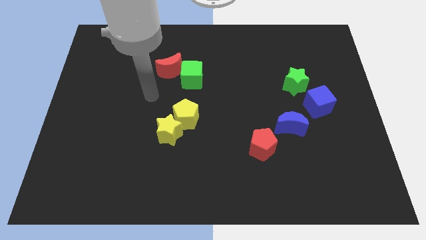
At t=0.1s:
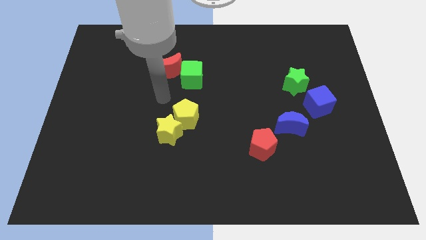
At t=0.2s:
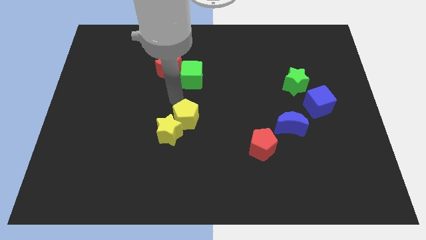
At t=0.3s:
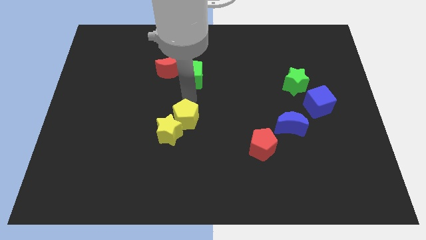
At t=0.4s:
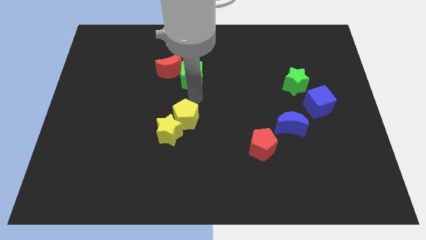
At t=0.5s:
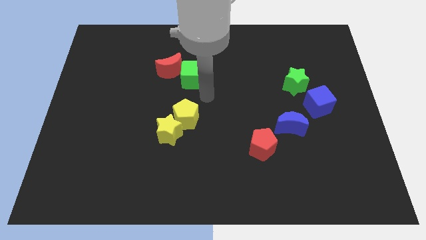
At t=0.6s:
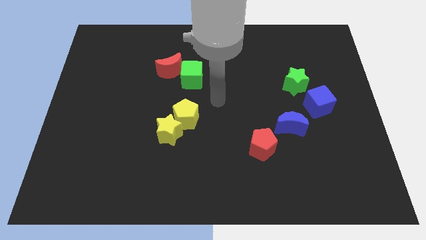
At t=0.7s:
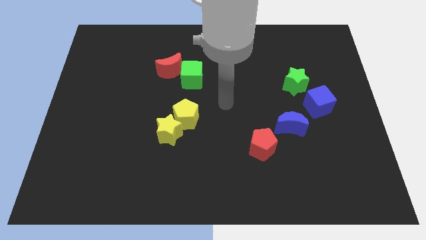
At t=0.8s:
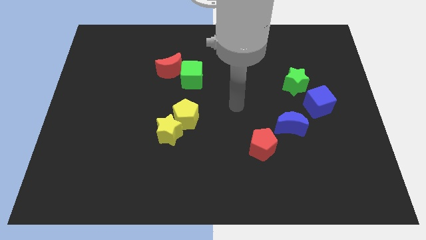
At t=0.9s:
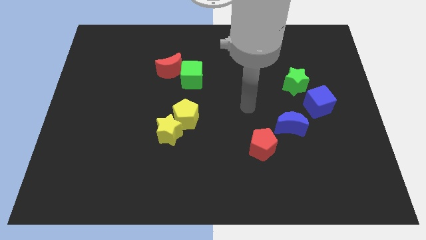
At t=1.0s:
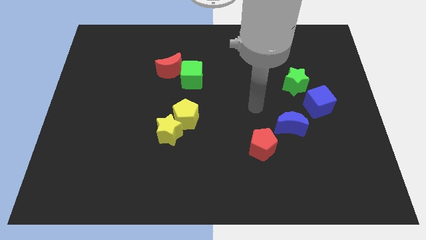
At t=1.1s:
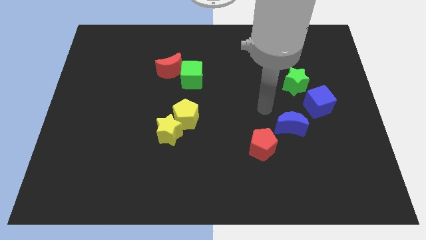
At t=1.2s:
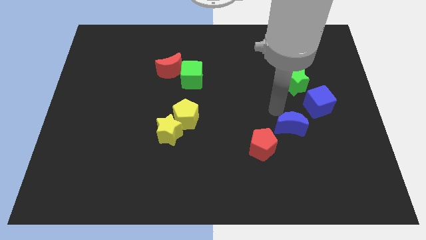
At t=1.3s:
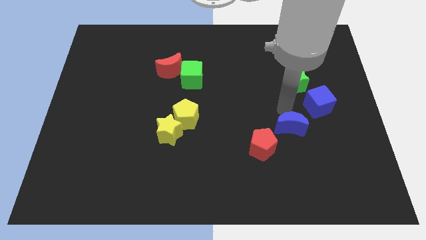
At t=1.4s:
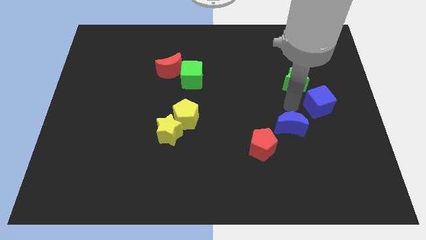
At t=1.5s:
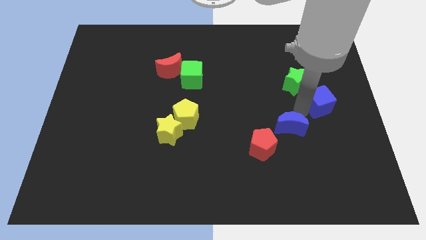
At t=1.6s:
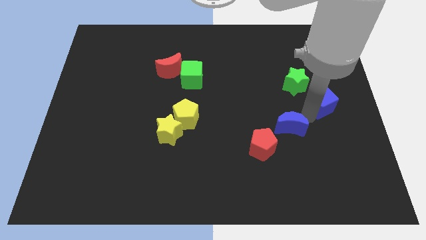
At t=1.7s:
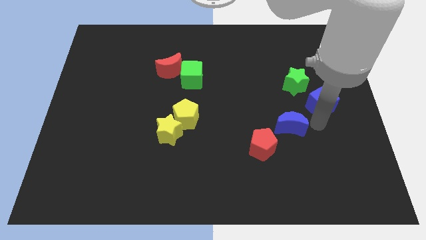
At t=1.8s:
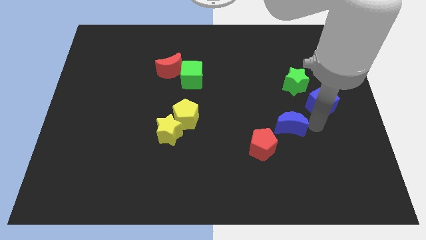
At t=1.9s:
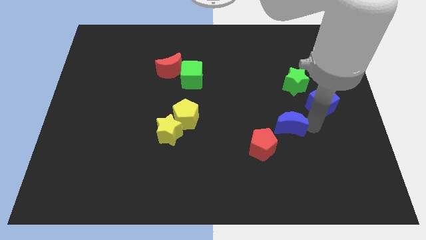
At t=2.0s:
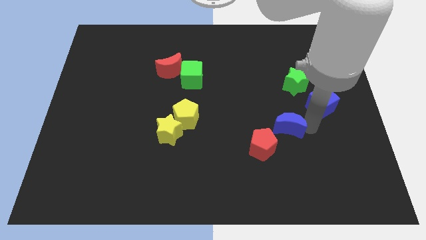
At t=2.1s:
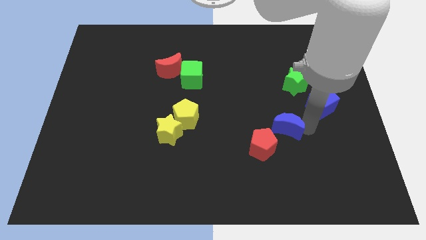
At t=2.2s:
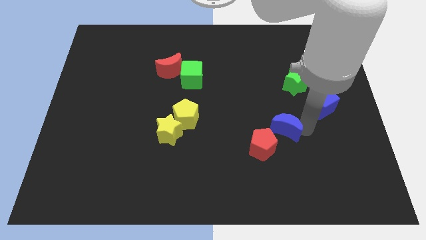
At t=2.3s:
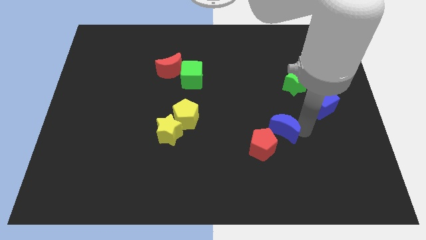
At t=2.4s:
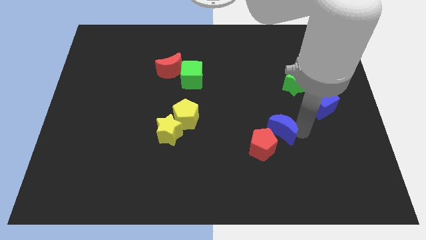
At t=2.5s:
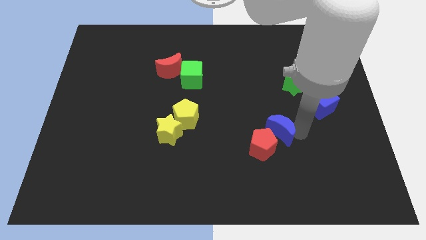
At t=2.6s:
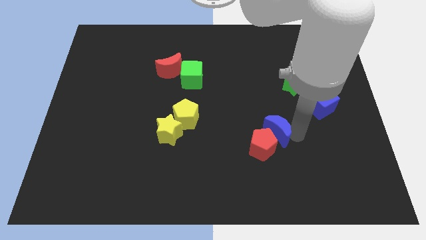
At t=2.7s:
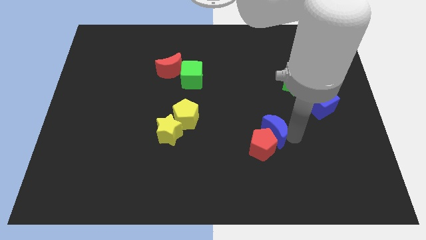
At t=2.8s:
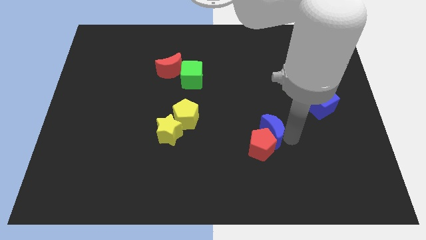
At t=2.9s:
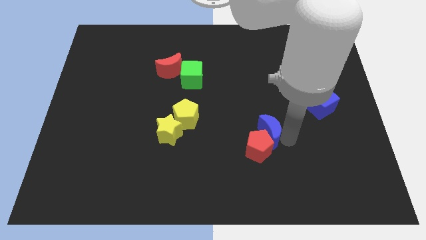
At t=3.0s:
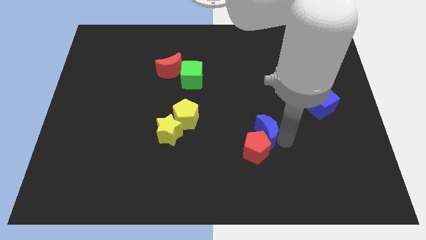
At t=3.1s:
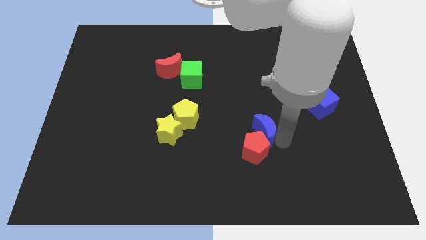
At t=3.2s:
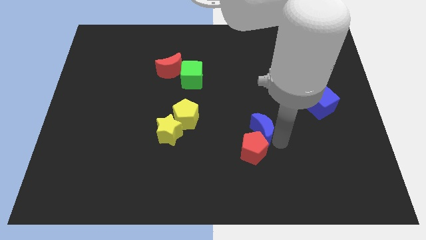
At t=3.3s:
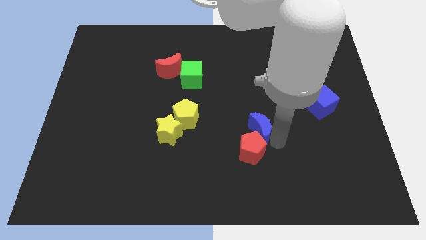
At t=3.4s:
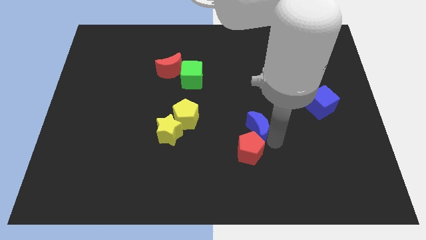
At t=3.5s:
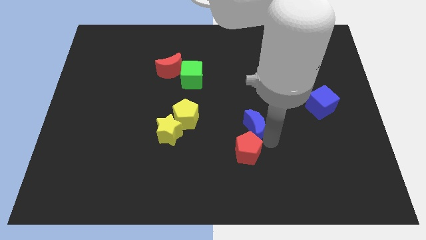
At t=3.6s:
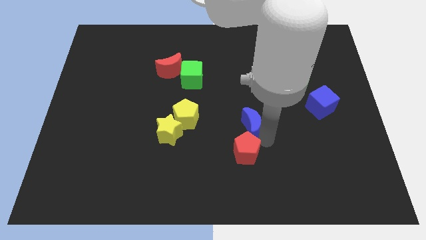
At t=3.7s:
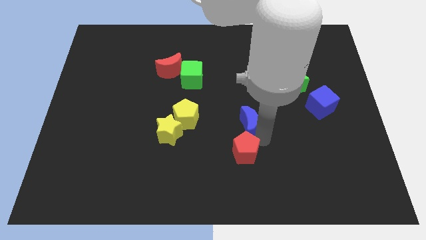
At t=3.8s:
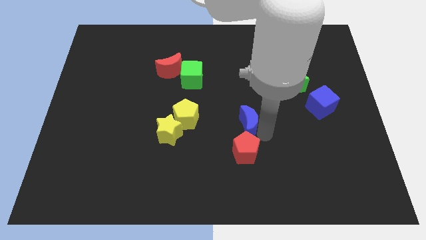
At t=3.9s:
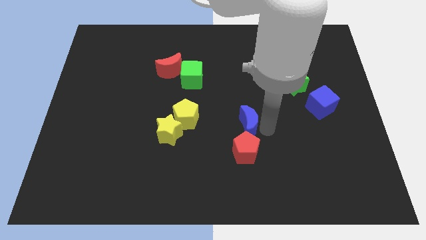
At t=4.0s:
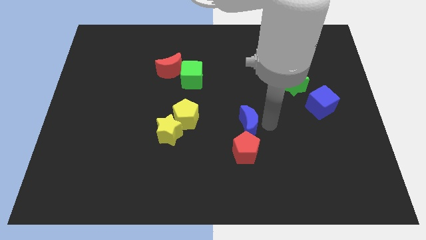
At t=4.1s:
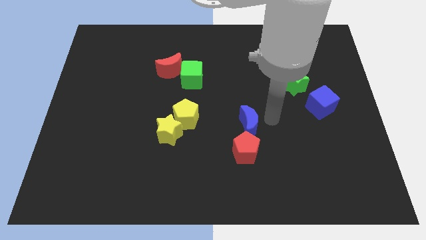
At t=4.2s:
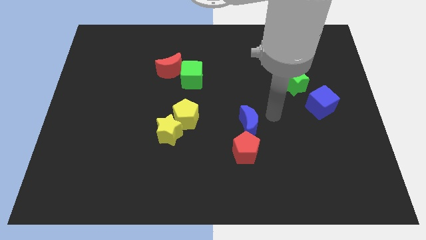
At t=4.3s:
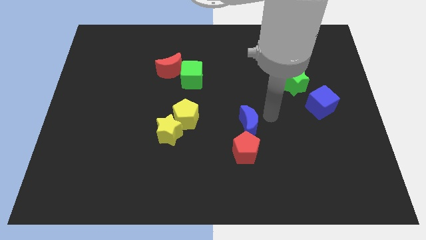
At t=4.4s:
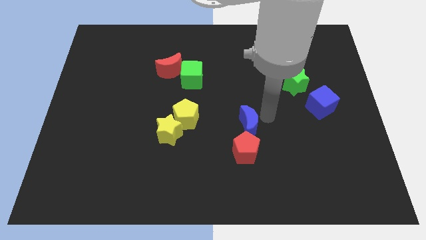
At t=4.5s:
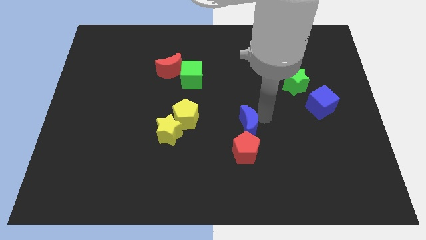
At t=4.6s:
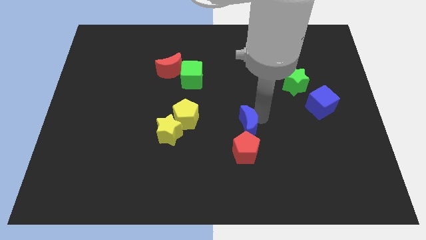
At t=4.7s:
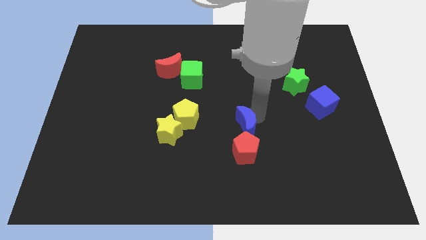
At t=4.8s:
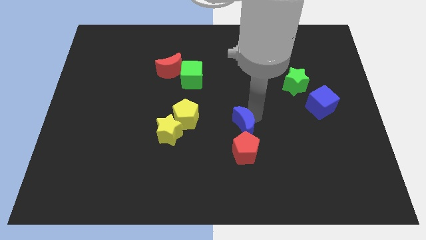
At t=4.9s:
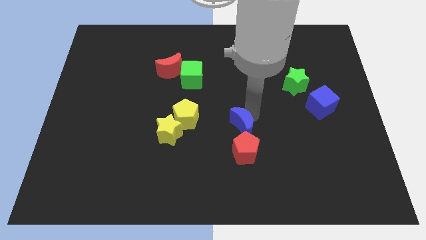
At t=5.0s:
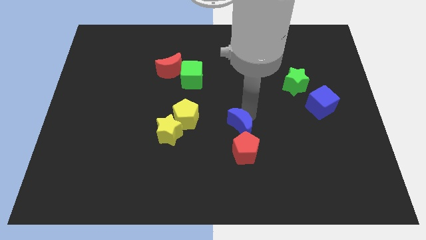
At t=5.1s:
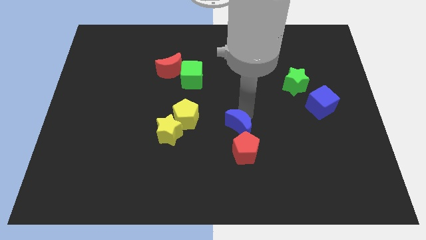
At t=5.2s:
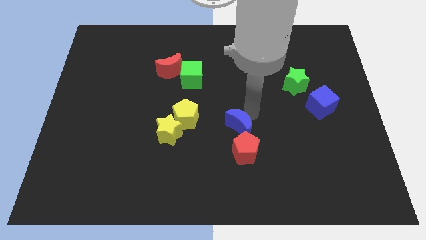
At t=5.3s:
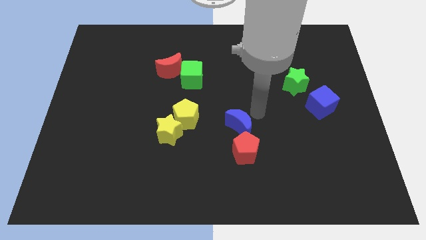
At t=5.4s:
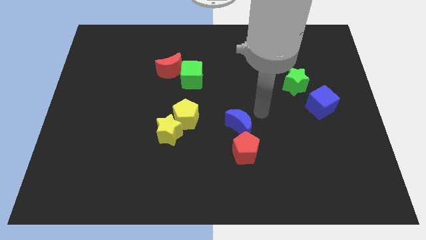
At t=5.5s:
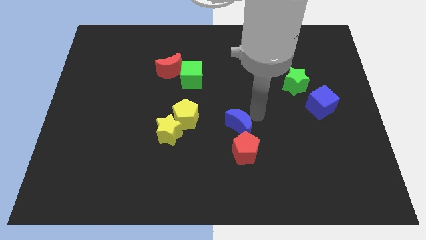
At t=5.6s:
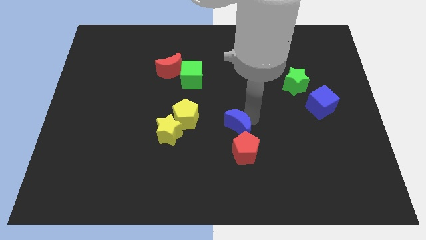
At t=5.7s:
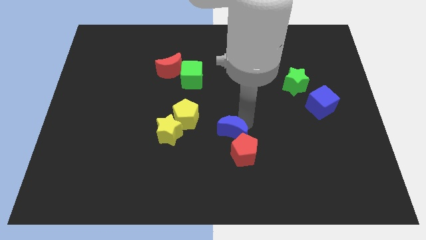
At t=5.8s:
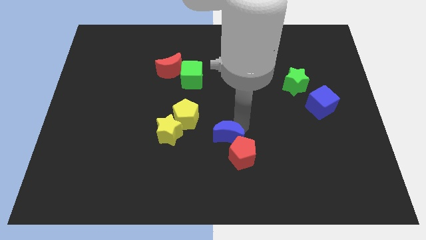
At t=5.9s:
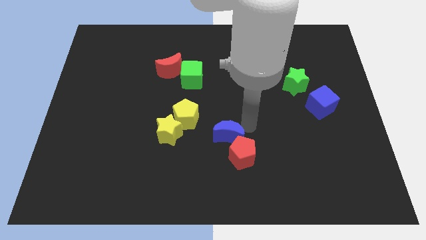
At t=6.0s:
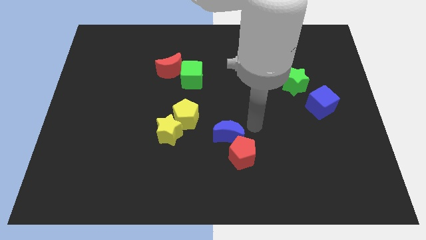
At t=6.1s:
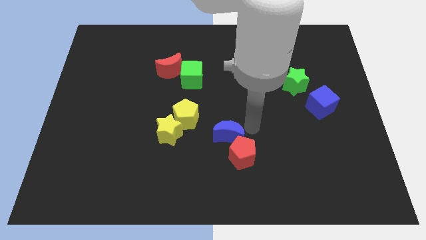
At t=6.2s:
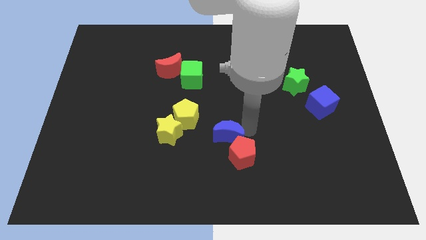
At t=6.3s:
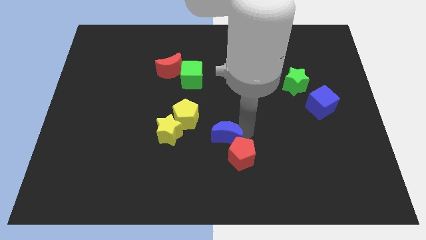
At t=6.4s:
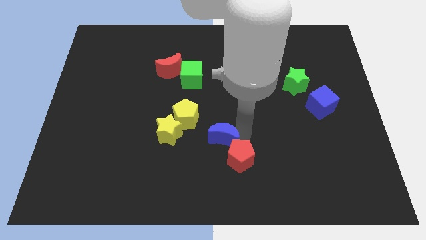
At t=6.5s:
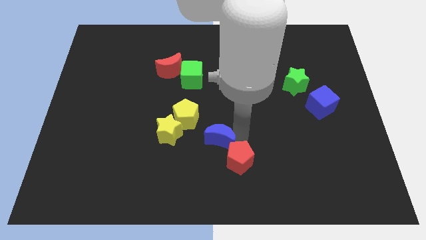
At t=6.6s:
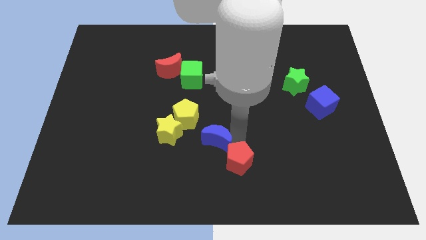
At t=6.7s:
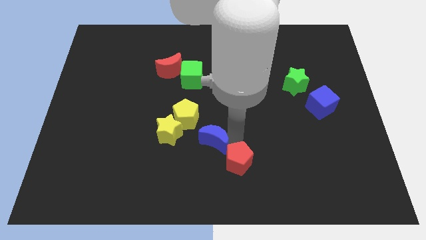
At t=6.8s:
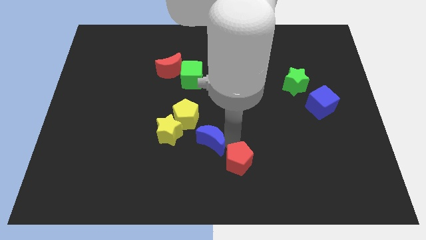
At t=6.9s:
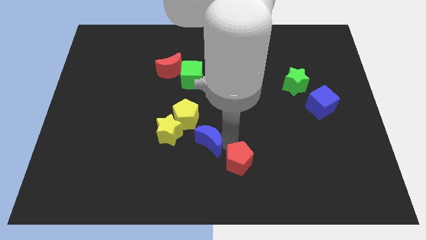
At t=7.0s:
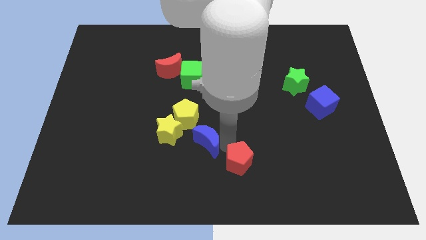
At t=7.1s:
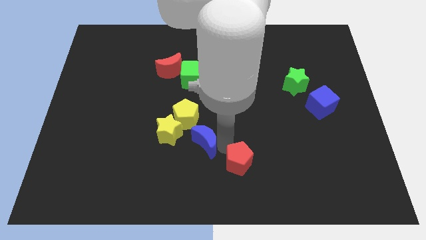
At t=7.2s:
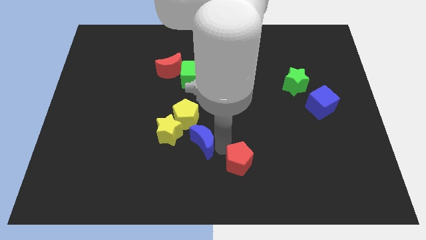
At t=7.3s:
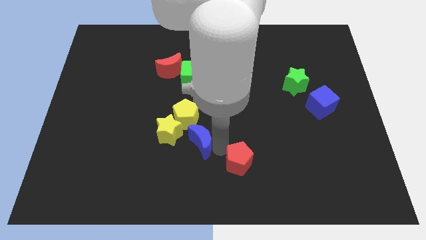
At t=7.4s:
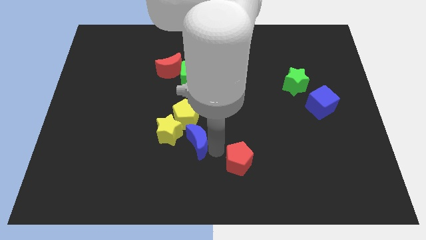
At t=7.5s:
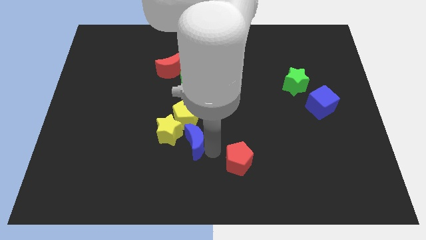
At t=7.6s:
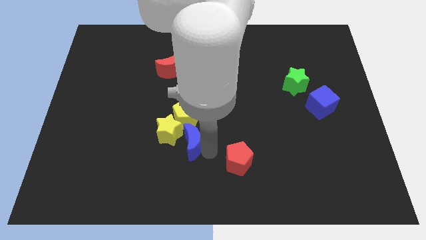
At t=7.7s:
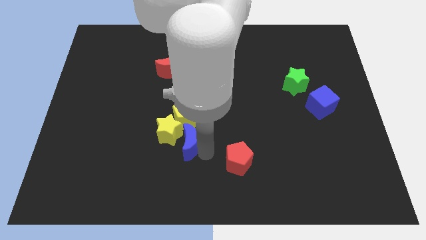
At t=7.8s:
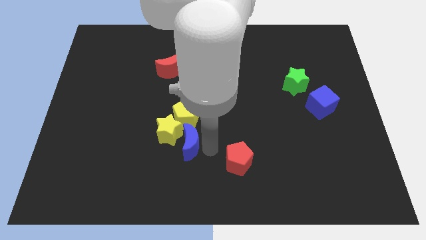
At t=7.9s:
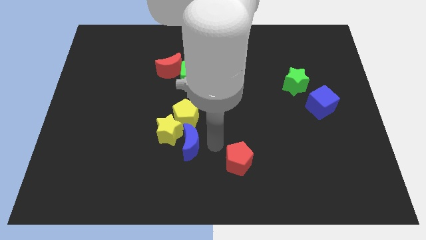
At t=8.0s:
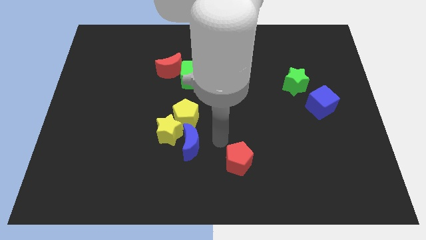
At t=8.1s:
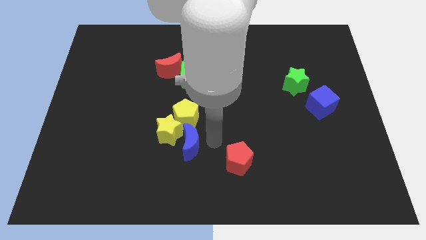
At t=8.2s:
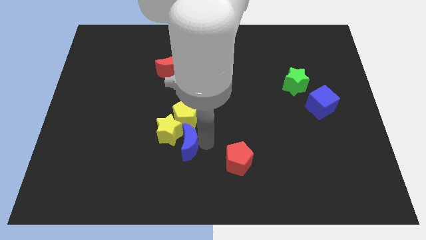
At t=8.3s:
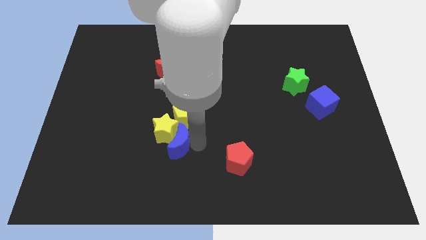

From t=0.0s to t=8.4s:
slide the blue moon to the bottom left of the yellow pentagon
